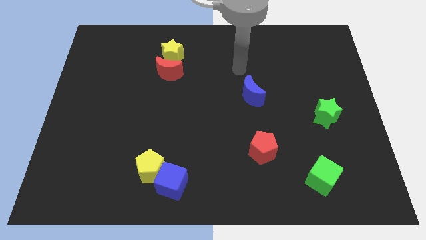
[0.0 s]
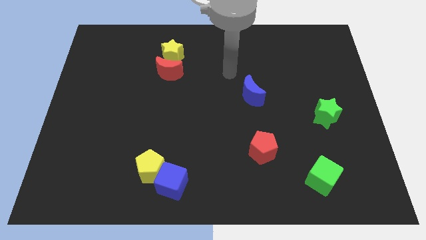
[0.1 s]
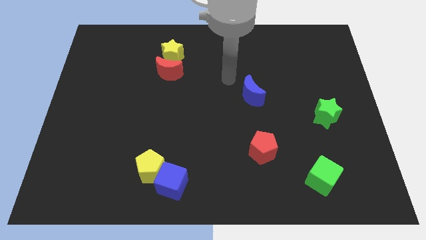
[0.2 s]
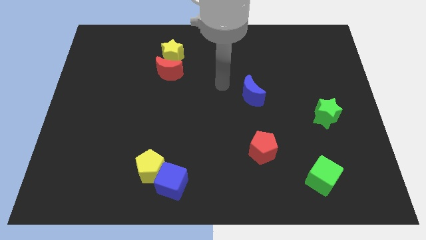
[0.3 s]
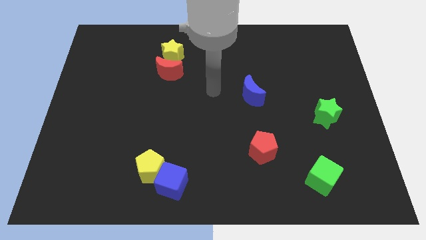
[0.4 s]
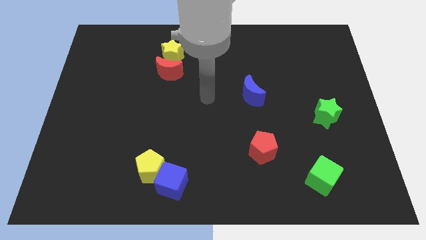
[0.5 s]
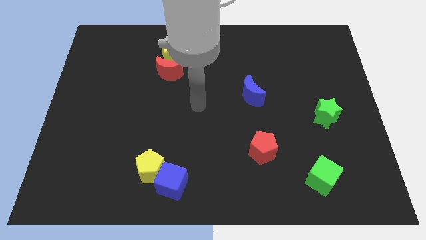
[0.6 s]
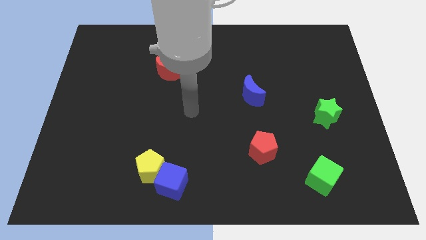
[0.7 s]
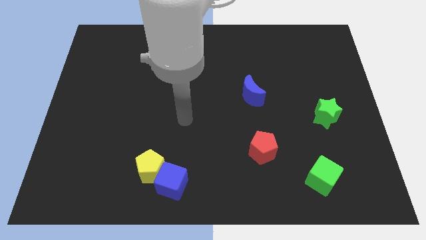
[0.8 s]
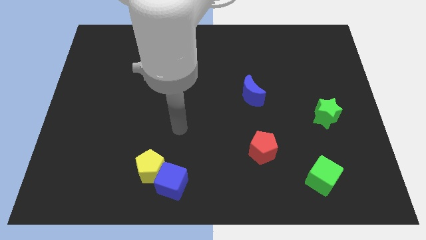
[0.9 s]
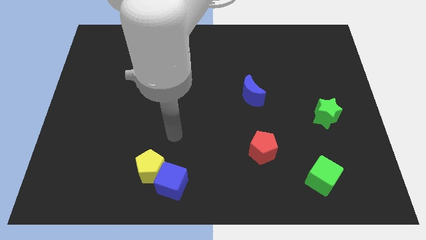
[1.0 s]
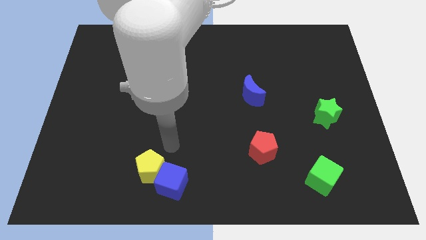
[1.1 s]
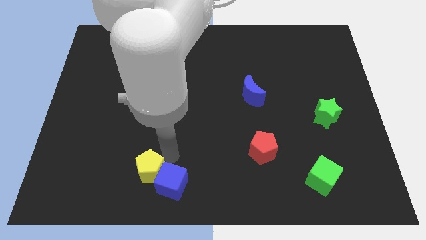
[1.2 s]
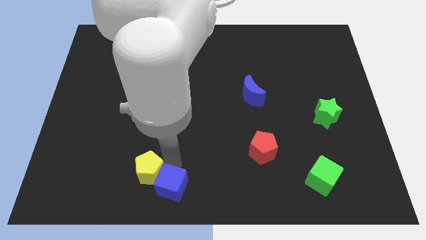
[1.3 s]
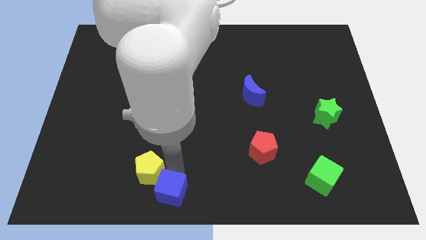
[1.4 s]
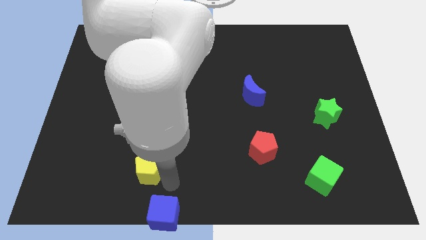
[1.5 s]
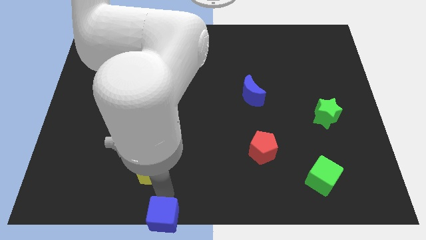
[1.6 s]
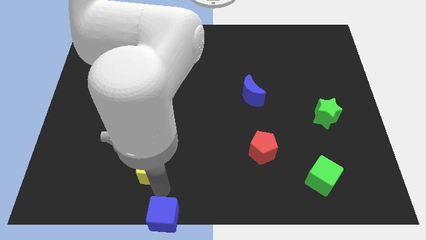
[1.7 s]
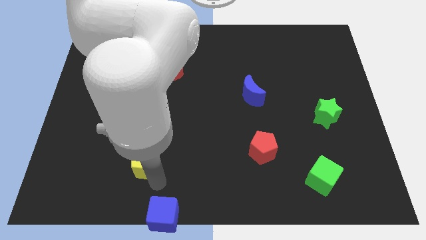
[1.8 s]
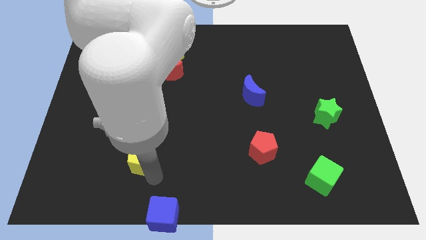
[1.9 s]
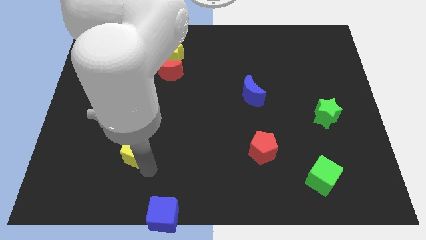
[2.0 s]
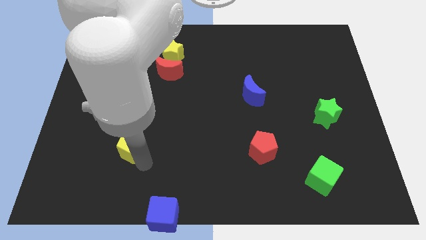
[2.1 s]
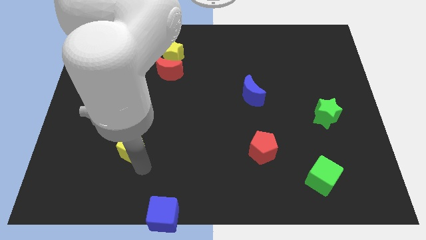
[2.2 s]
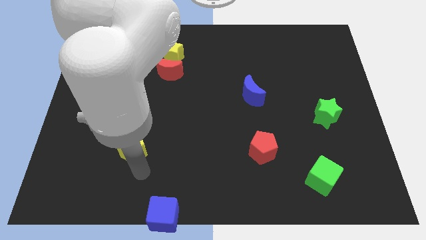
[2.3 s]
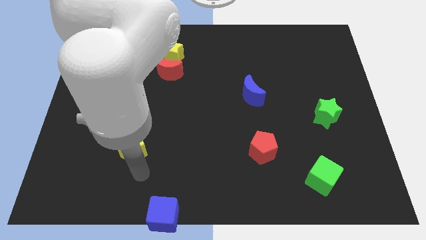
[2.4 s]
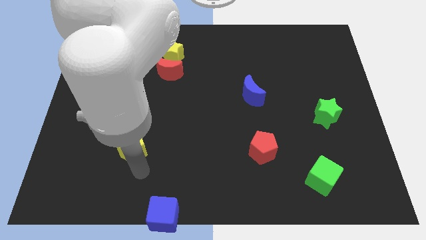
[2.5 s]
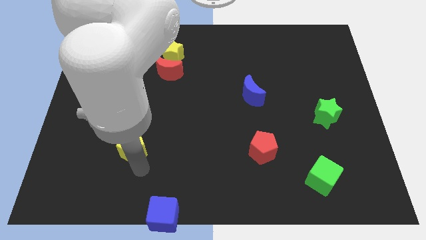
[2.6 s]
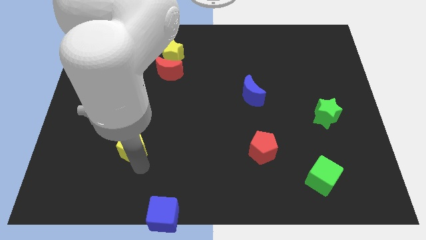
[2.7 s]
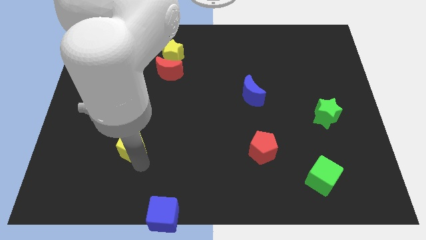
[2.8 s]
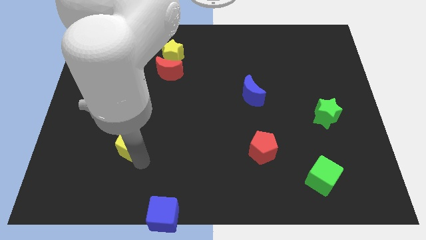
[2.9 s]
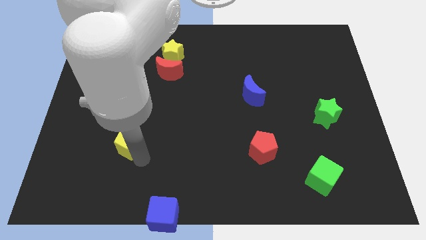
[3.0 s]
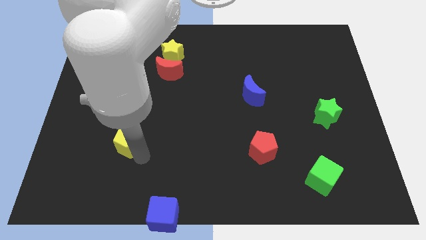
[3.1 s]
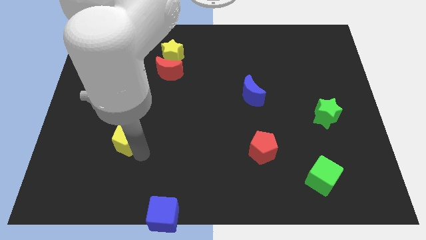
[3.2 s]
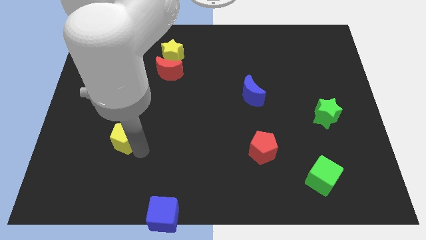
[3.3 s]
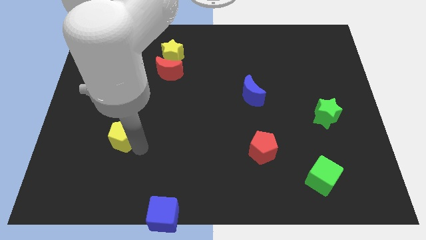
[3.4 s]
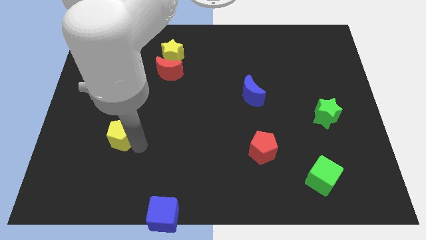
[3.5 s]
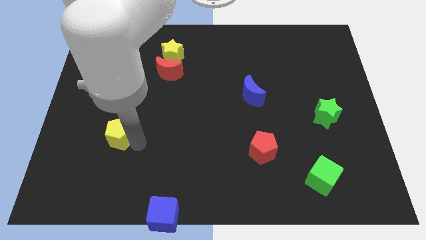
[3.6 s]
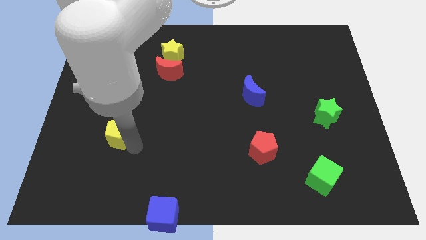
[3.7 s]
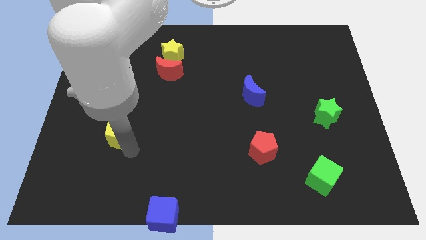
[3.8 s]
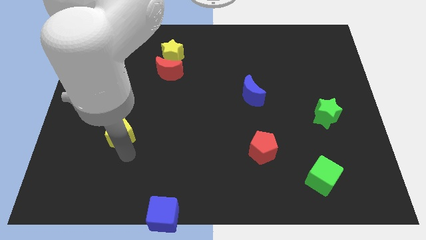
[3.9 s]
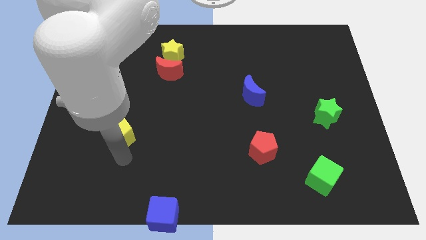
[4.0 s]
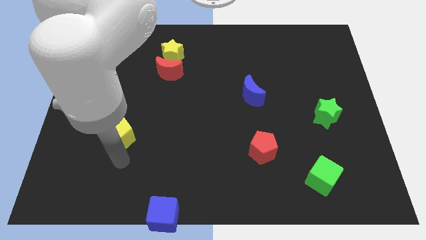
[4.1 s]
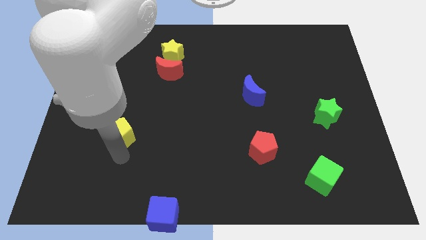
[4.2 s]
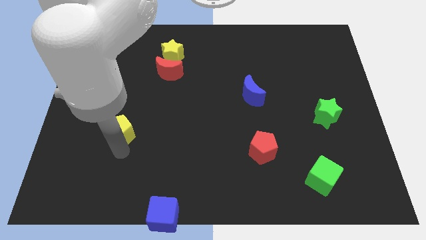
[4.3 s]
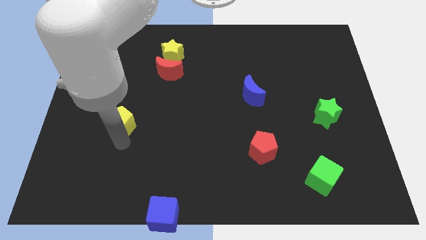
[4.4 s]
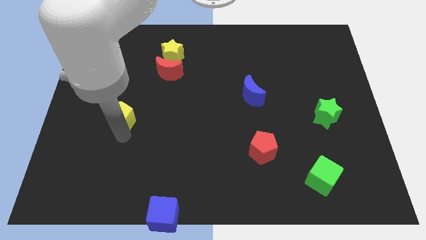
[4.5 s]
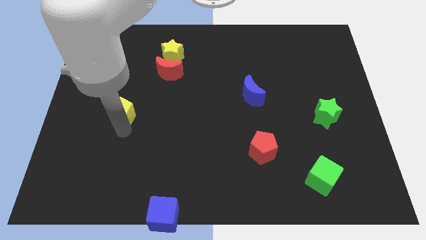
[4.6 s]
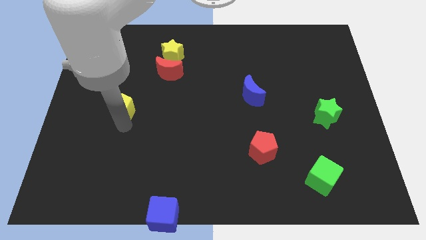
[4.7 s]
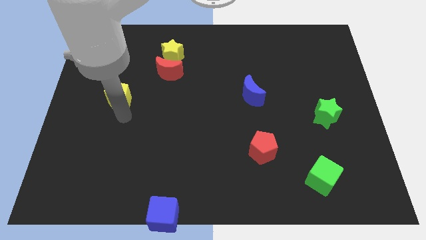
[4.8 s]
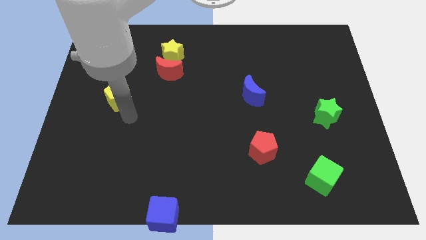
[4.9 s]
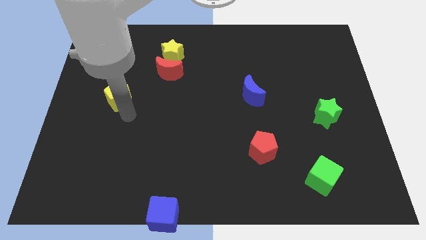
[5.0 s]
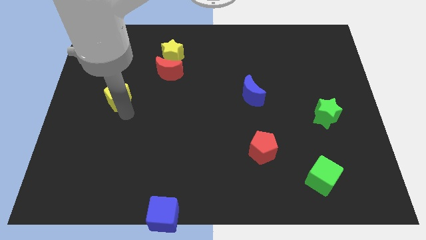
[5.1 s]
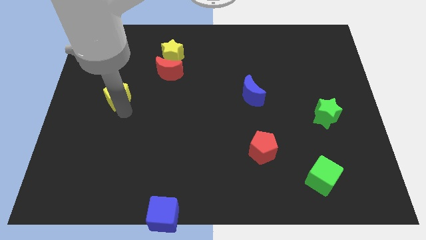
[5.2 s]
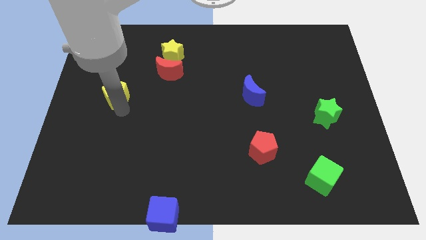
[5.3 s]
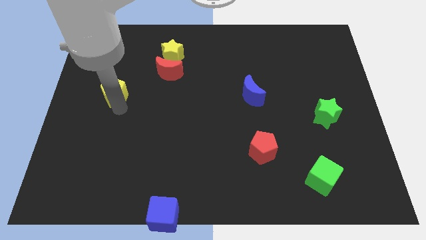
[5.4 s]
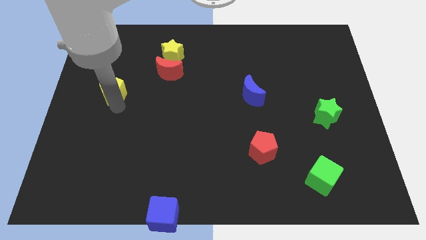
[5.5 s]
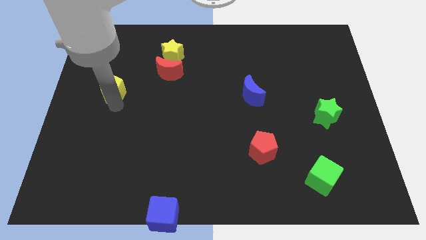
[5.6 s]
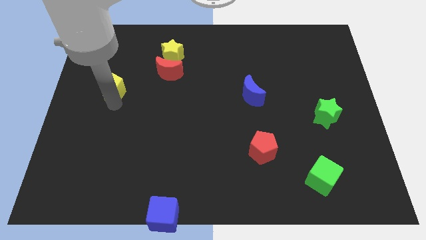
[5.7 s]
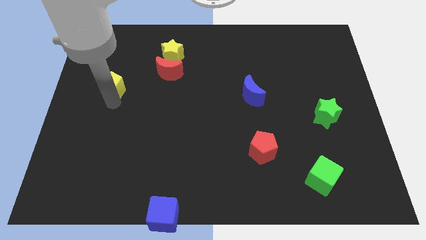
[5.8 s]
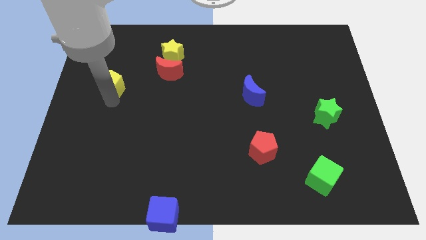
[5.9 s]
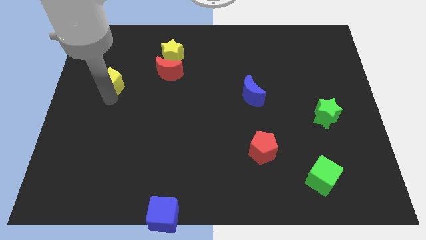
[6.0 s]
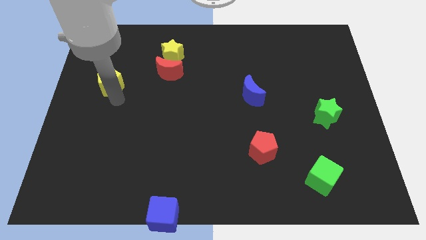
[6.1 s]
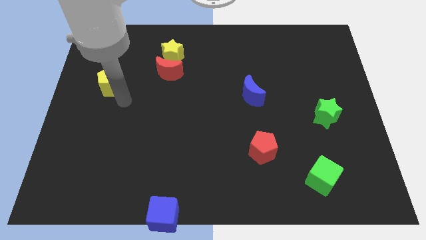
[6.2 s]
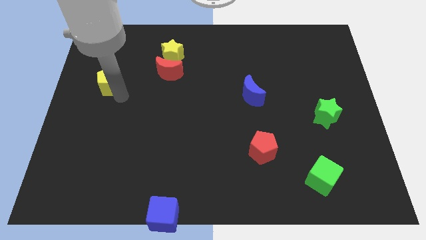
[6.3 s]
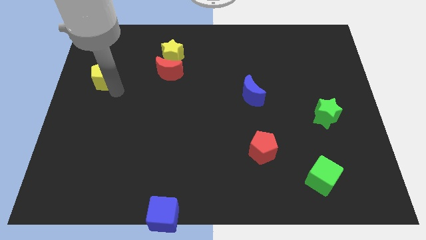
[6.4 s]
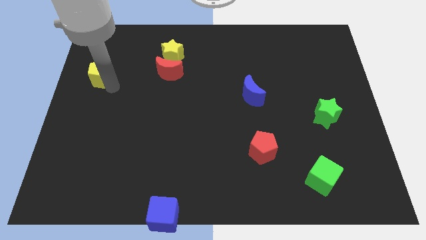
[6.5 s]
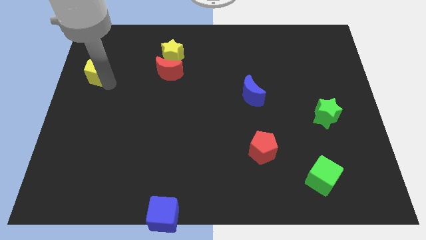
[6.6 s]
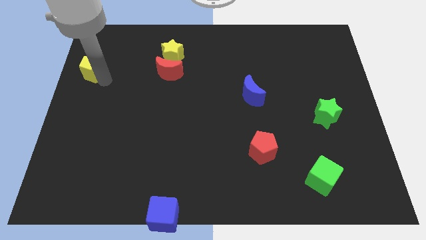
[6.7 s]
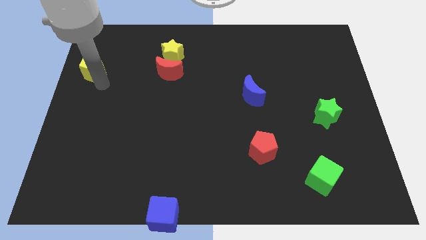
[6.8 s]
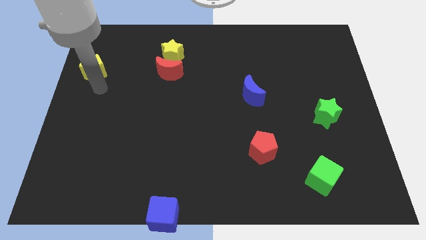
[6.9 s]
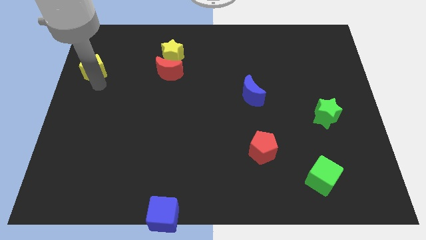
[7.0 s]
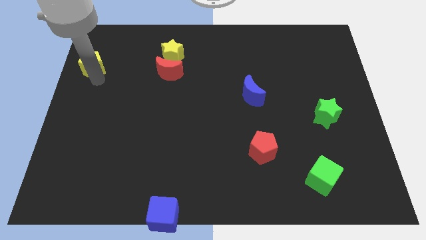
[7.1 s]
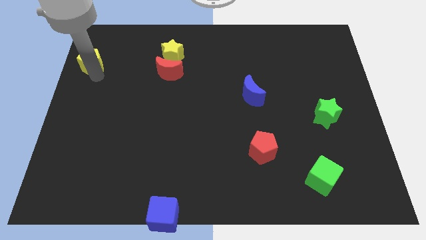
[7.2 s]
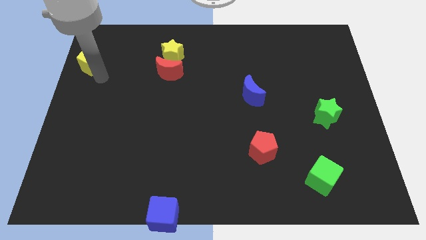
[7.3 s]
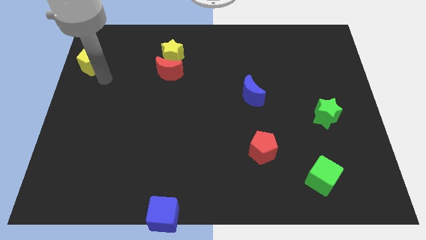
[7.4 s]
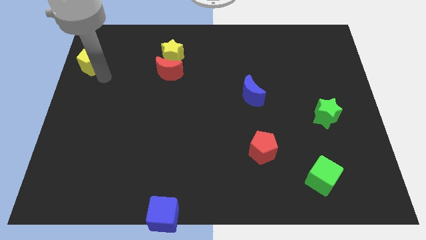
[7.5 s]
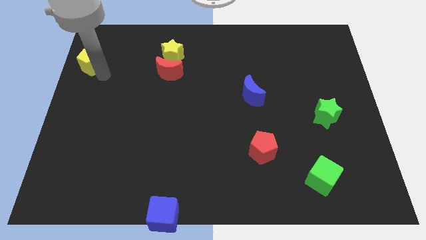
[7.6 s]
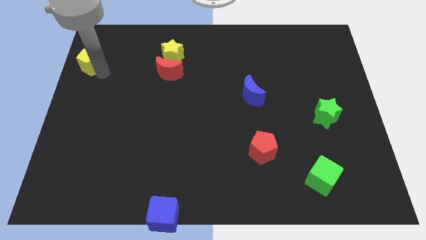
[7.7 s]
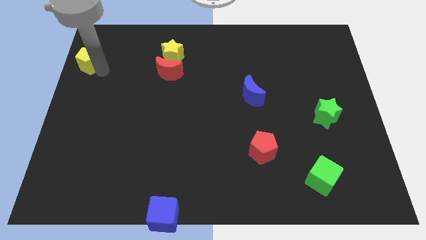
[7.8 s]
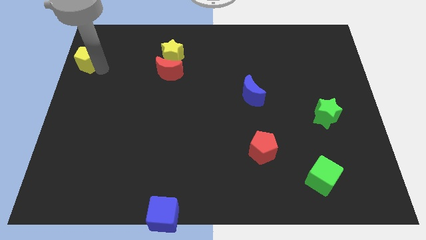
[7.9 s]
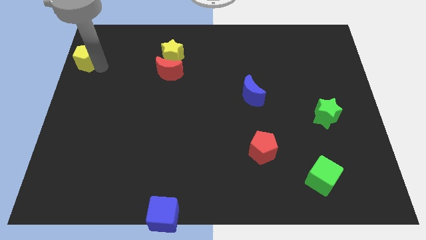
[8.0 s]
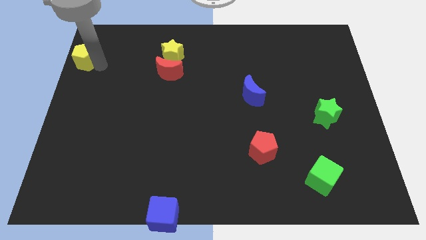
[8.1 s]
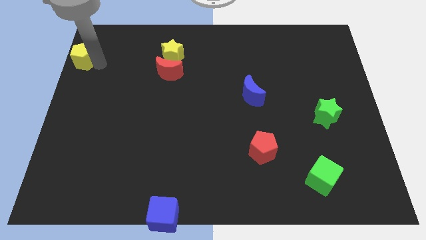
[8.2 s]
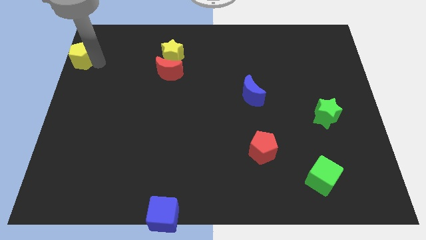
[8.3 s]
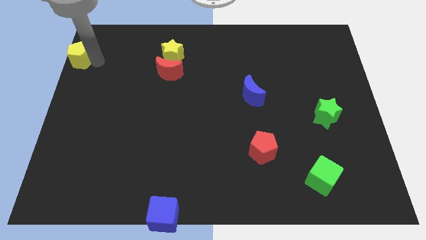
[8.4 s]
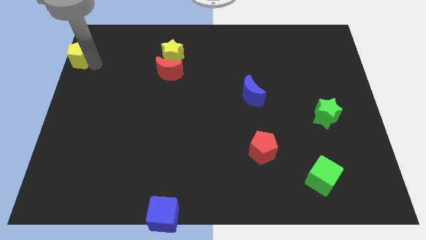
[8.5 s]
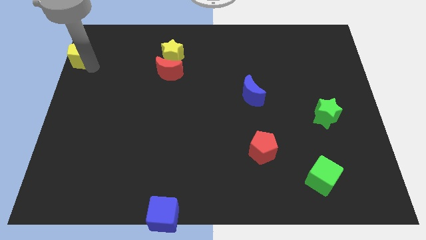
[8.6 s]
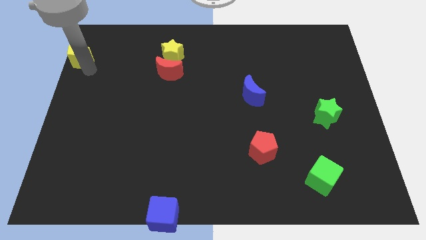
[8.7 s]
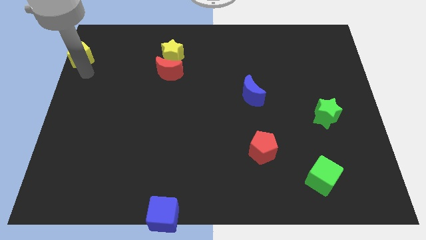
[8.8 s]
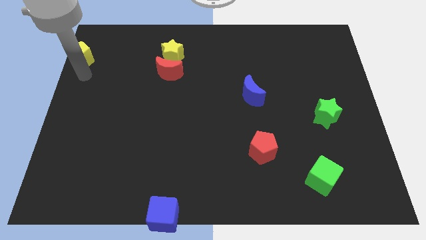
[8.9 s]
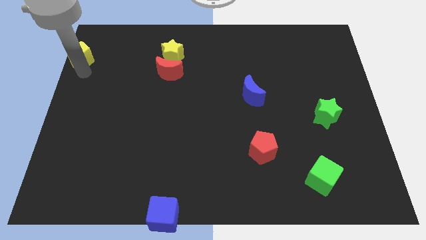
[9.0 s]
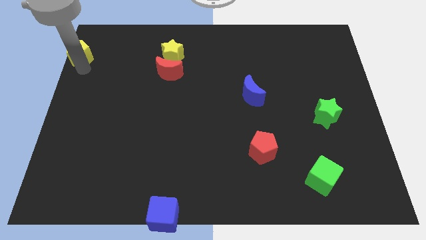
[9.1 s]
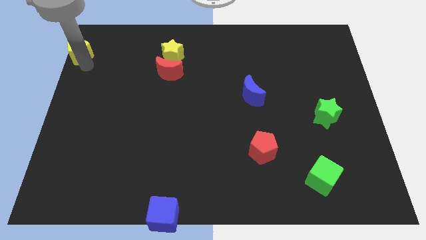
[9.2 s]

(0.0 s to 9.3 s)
push the yellow pentagon to the top left of the board
